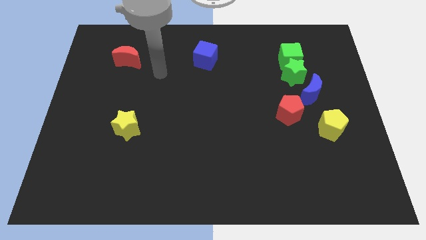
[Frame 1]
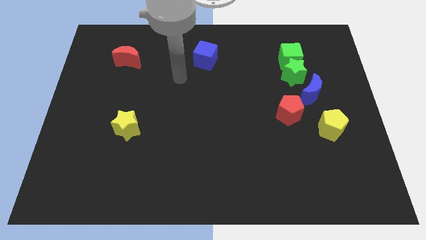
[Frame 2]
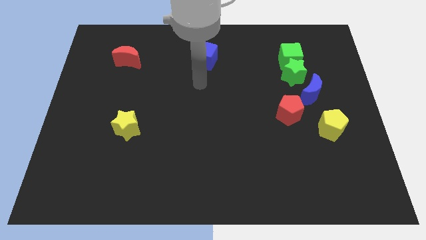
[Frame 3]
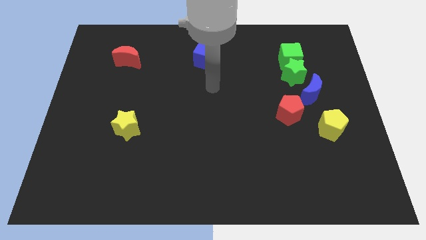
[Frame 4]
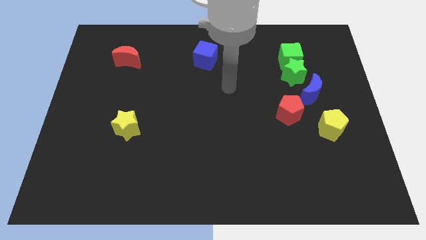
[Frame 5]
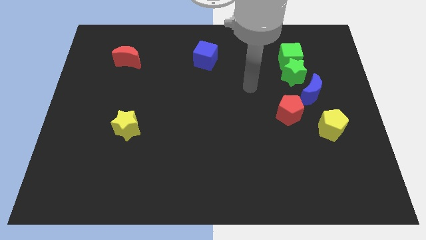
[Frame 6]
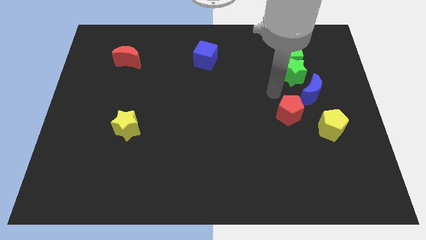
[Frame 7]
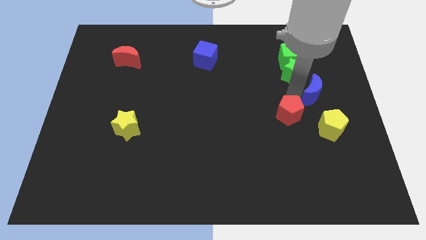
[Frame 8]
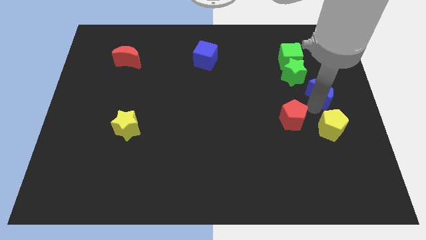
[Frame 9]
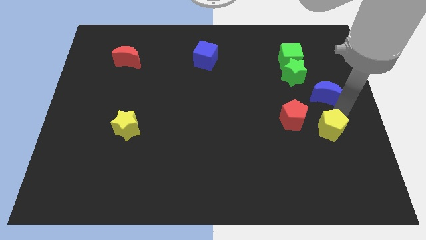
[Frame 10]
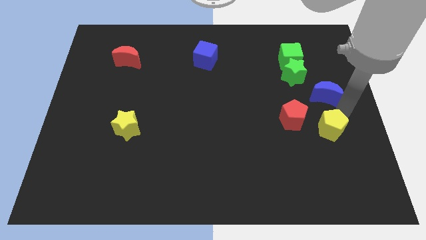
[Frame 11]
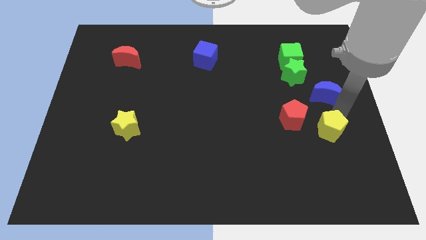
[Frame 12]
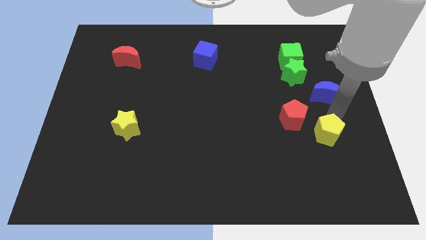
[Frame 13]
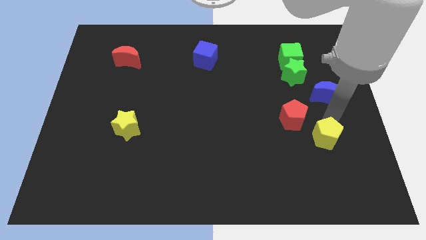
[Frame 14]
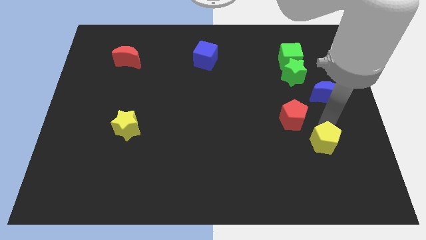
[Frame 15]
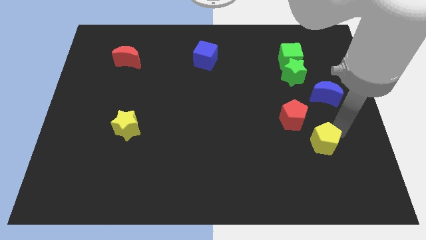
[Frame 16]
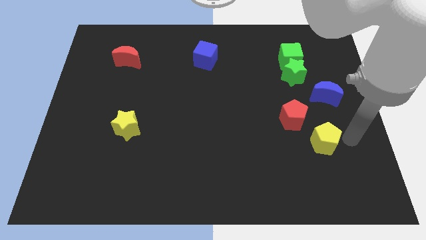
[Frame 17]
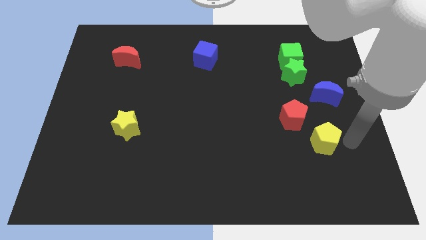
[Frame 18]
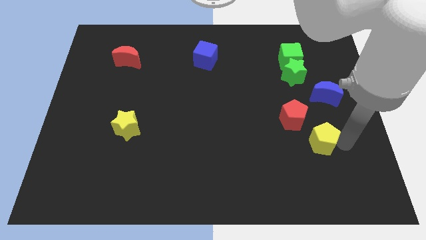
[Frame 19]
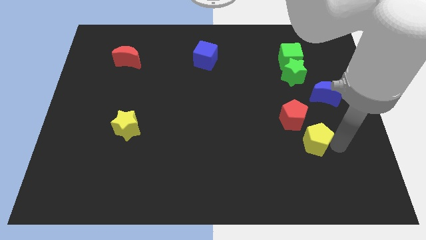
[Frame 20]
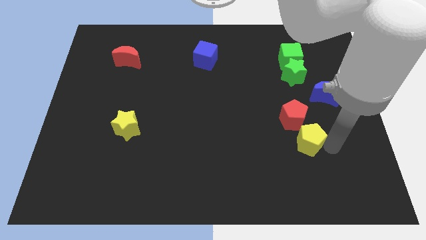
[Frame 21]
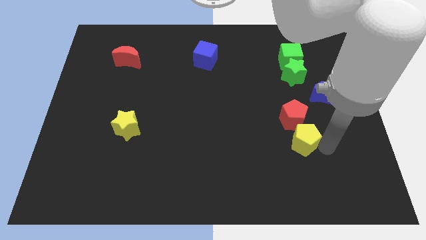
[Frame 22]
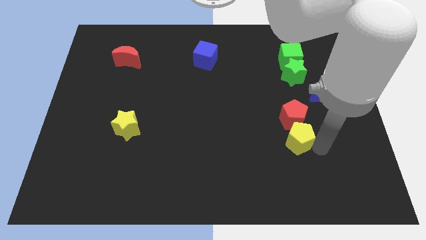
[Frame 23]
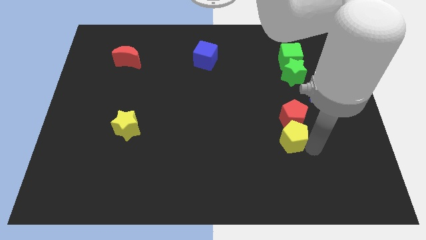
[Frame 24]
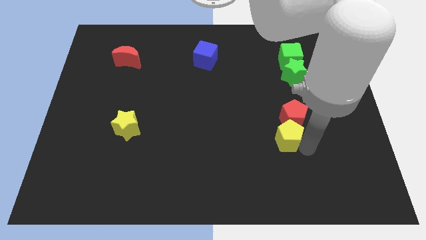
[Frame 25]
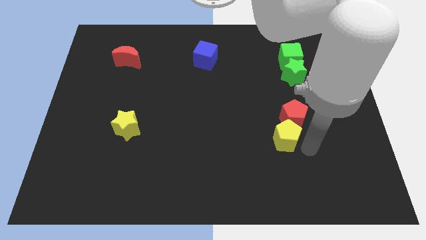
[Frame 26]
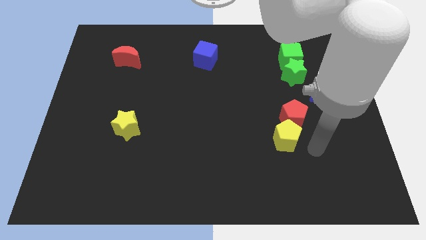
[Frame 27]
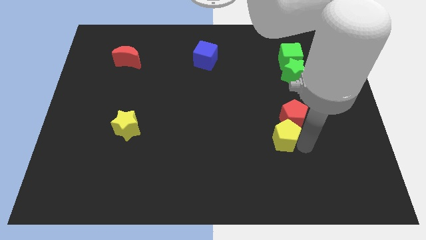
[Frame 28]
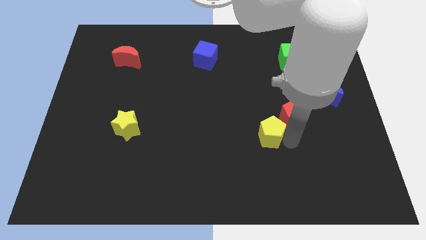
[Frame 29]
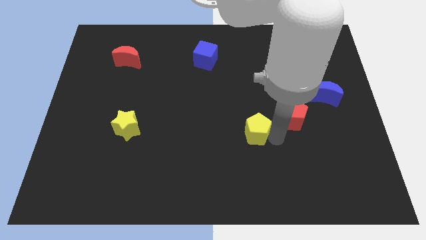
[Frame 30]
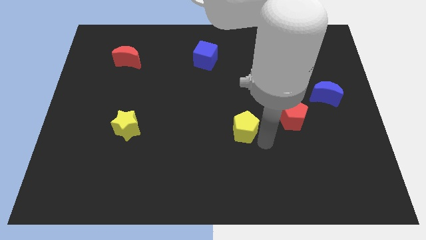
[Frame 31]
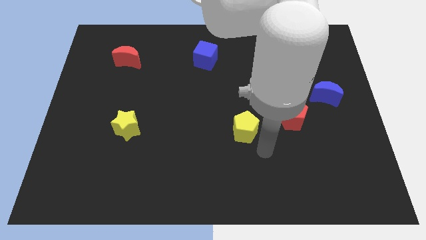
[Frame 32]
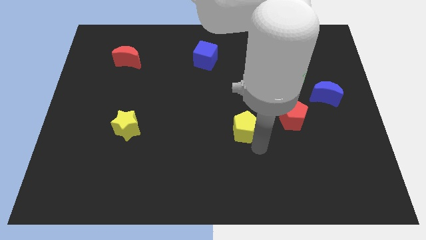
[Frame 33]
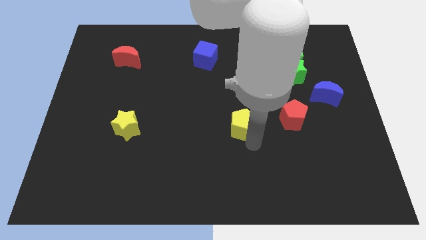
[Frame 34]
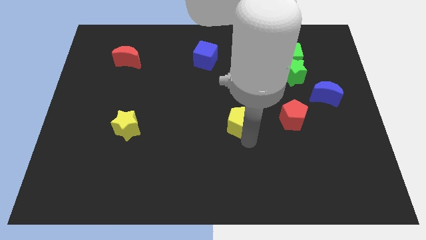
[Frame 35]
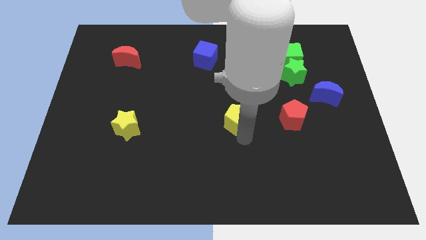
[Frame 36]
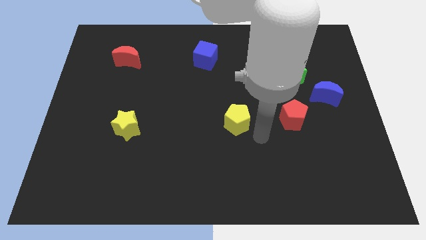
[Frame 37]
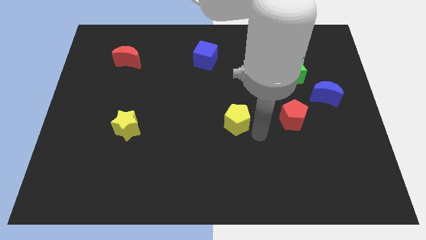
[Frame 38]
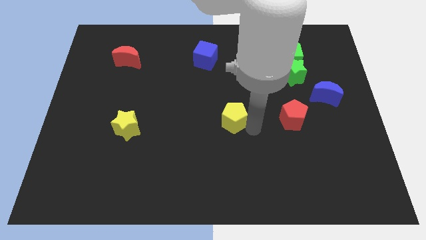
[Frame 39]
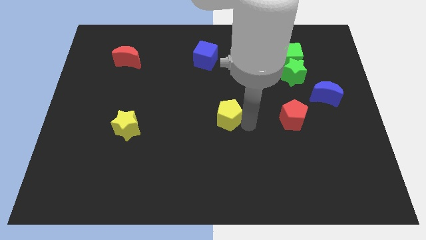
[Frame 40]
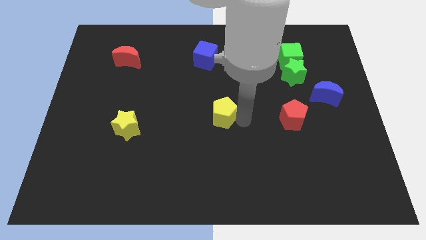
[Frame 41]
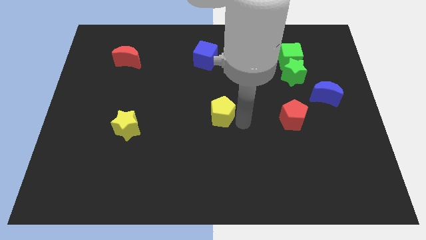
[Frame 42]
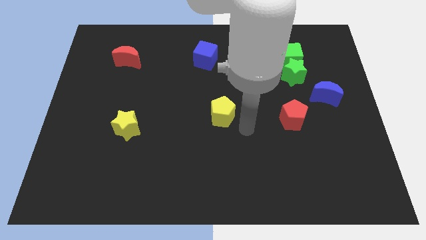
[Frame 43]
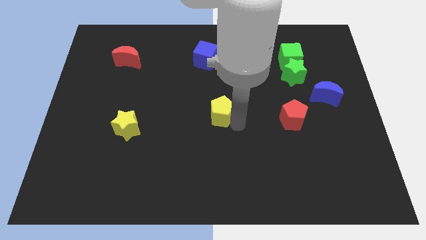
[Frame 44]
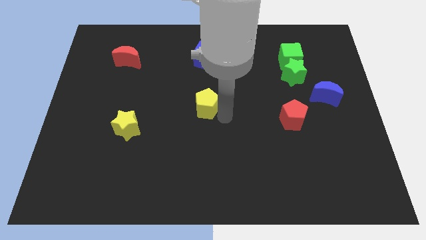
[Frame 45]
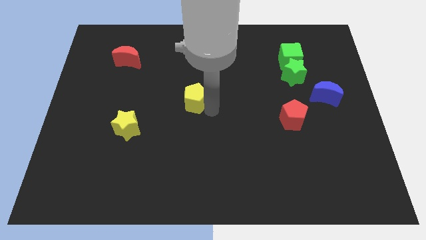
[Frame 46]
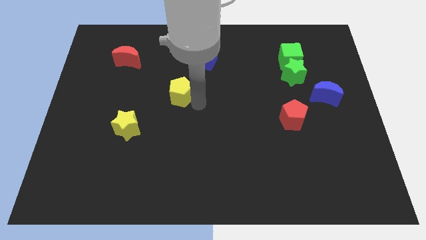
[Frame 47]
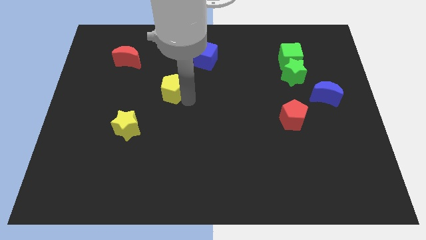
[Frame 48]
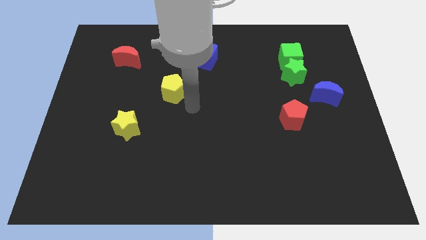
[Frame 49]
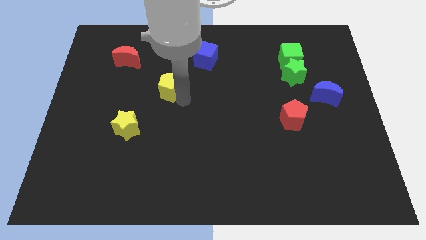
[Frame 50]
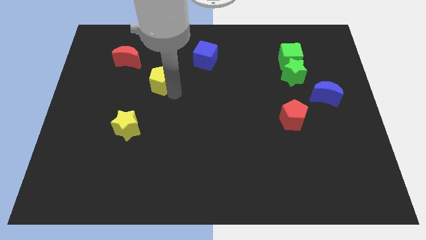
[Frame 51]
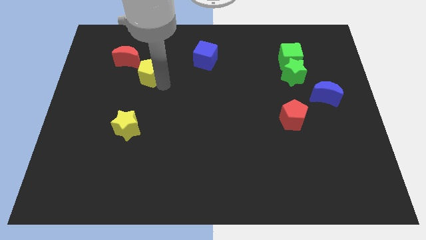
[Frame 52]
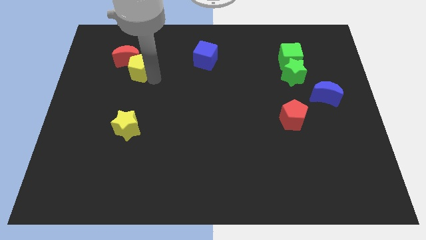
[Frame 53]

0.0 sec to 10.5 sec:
slide the yellow pentagon to the red moon

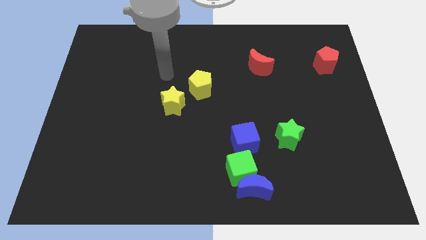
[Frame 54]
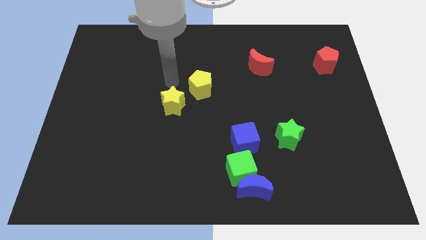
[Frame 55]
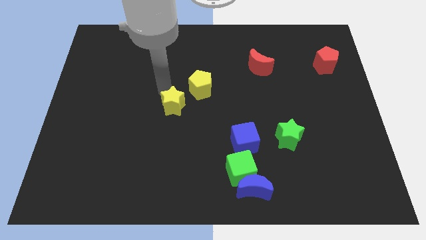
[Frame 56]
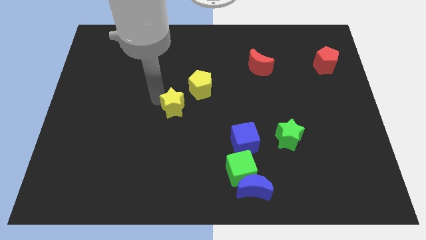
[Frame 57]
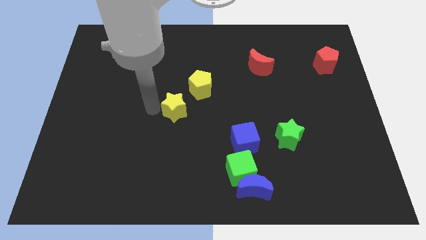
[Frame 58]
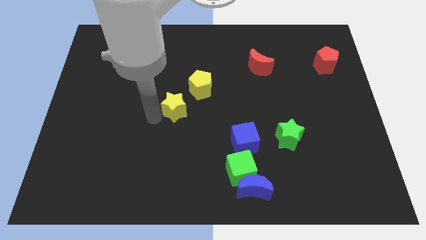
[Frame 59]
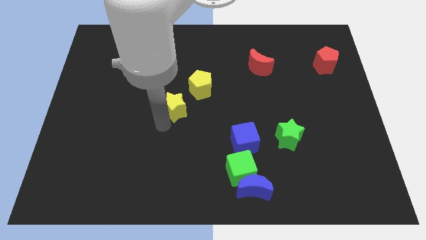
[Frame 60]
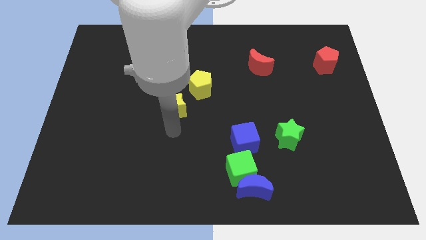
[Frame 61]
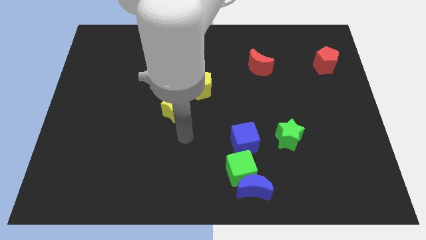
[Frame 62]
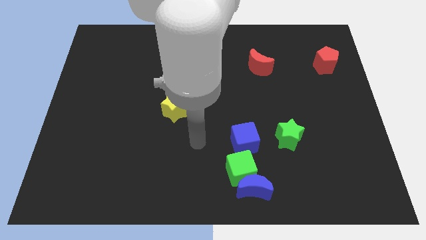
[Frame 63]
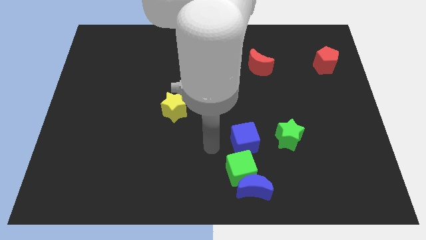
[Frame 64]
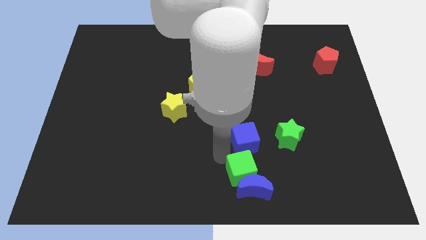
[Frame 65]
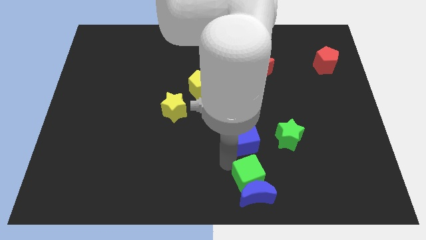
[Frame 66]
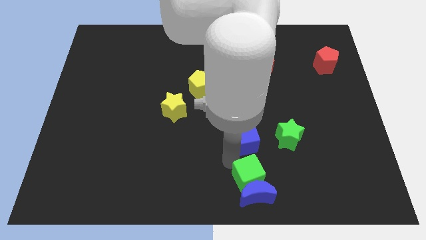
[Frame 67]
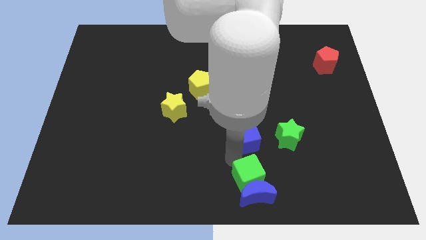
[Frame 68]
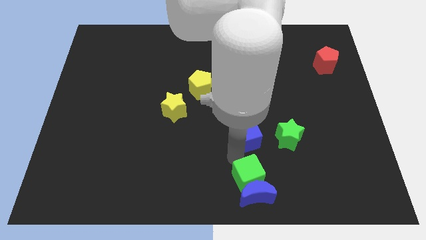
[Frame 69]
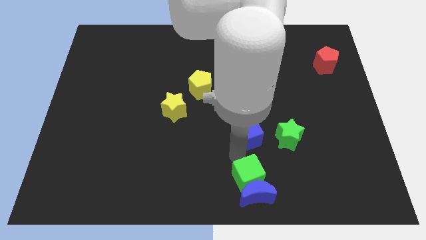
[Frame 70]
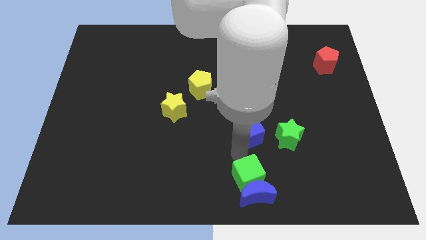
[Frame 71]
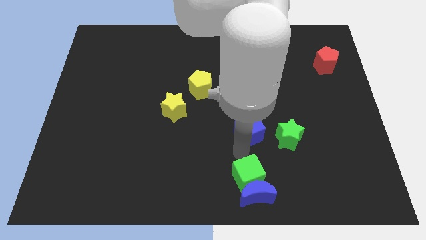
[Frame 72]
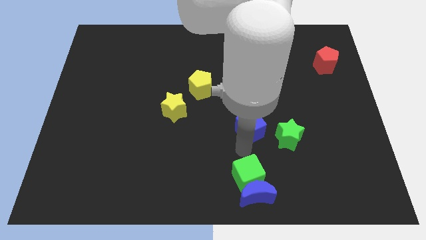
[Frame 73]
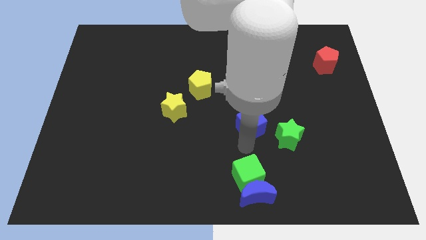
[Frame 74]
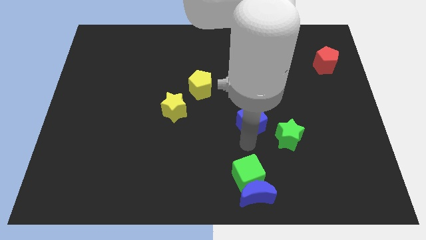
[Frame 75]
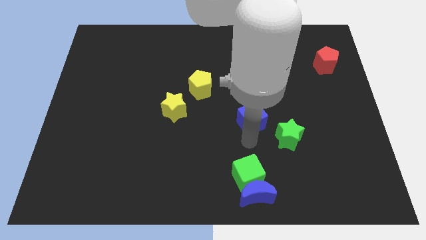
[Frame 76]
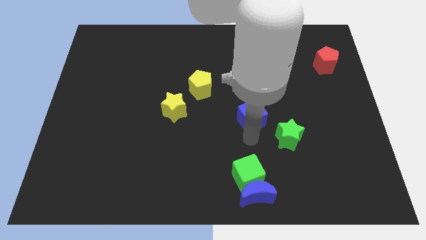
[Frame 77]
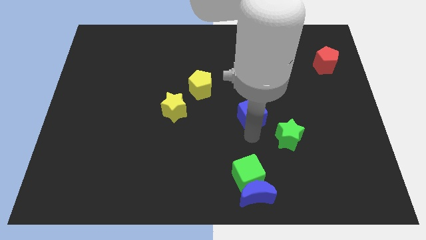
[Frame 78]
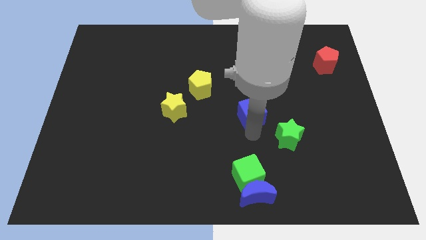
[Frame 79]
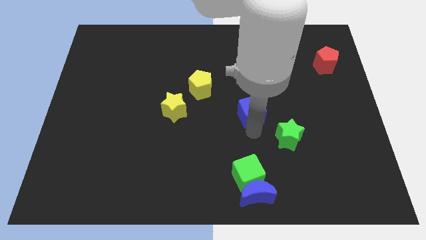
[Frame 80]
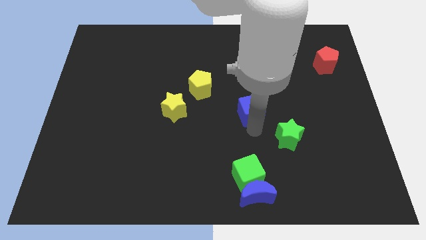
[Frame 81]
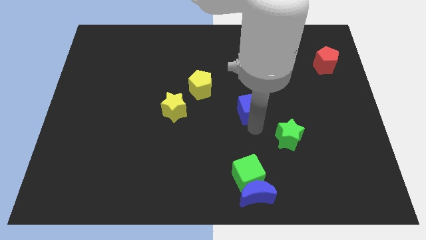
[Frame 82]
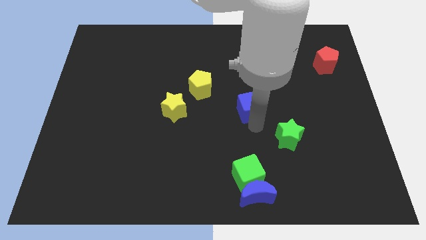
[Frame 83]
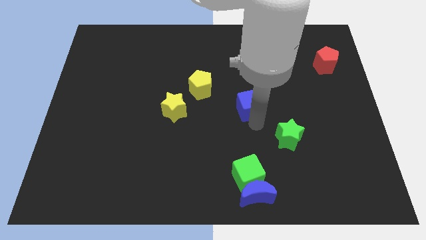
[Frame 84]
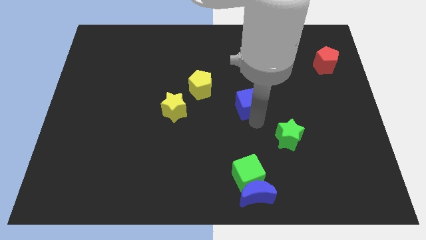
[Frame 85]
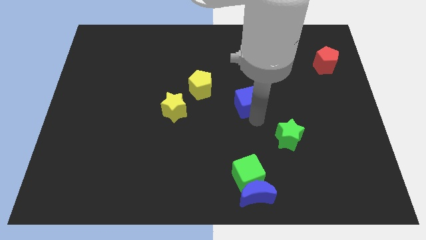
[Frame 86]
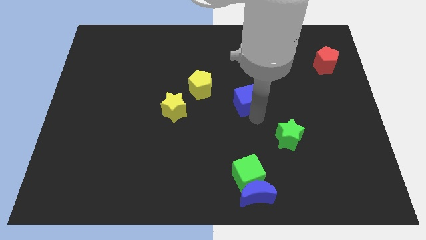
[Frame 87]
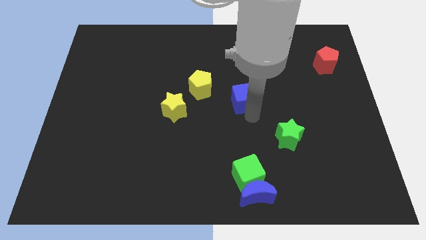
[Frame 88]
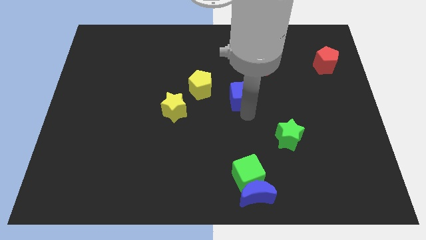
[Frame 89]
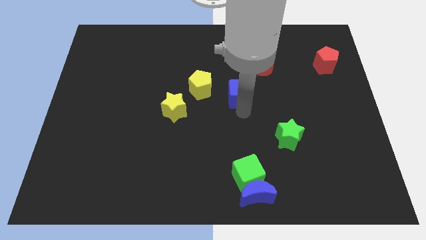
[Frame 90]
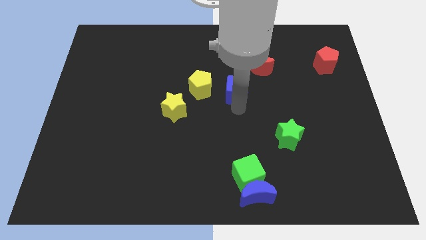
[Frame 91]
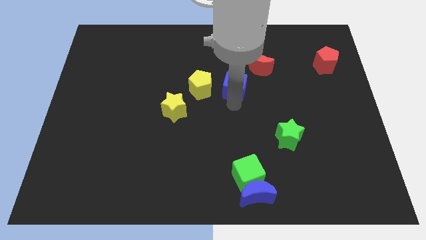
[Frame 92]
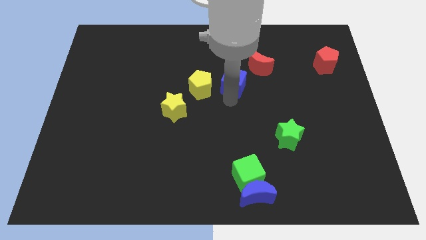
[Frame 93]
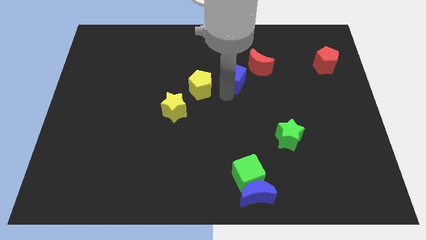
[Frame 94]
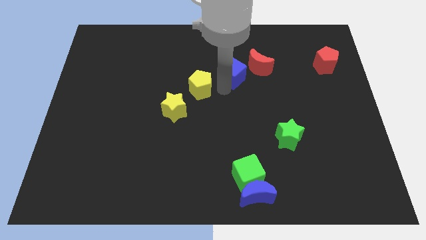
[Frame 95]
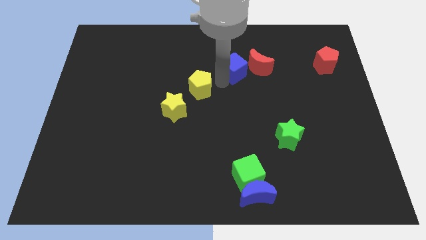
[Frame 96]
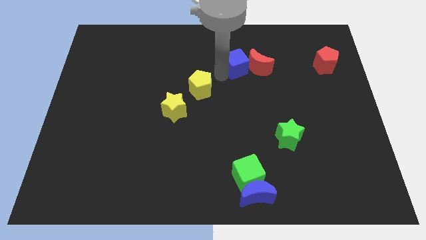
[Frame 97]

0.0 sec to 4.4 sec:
slide the blue cube towards the red moon
